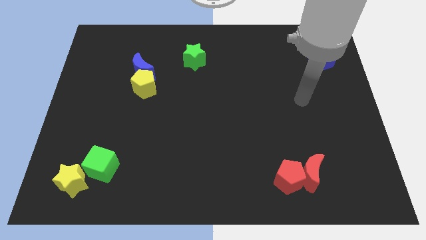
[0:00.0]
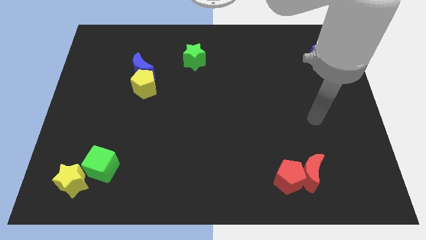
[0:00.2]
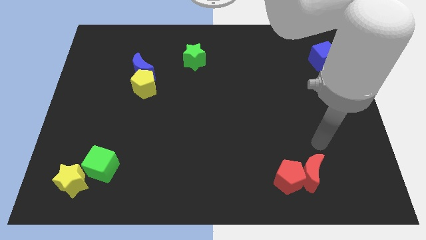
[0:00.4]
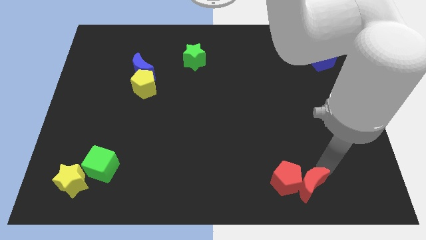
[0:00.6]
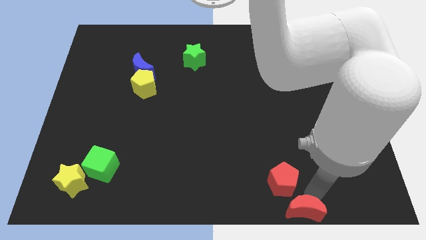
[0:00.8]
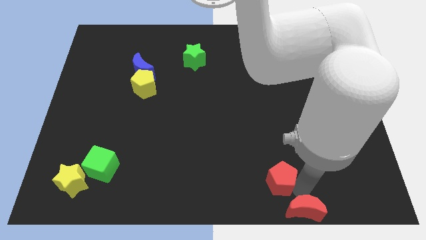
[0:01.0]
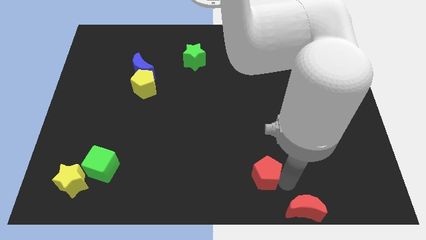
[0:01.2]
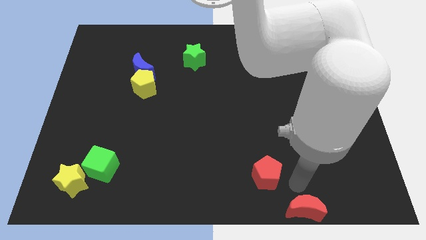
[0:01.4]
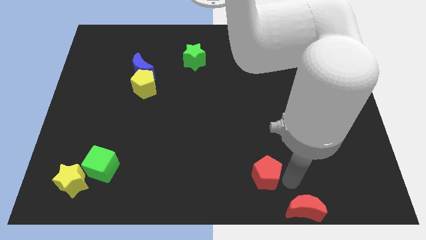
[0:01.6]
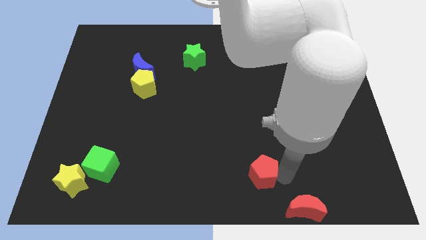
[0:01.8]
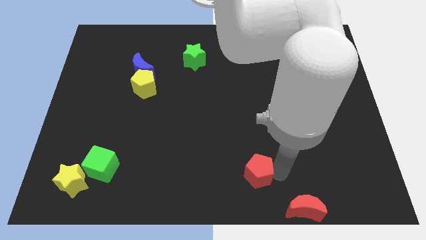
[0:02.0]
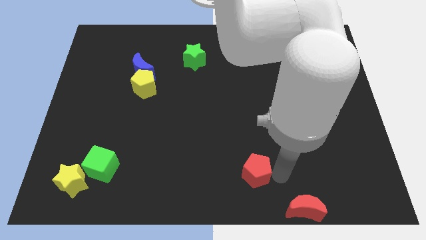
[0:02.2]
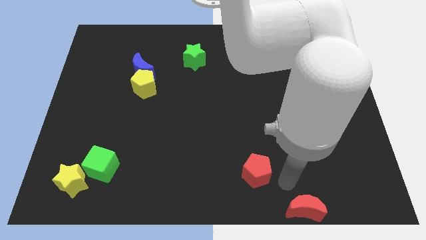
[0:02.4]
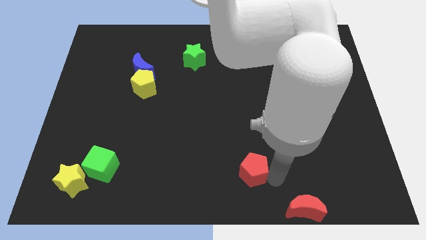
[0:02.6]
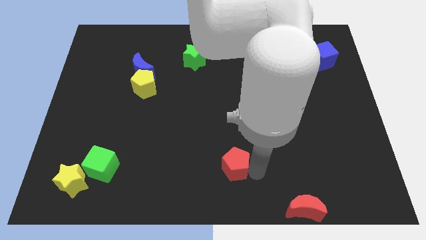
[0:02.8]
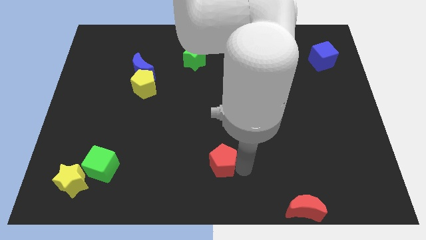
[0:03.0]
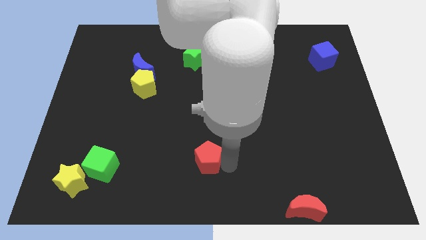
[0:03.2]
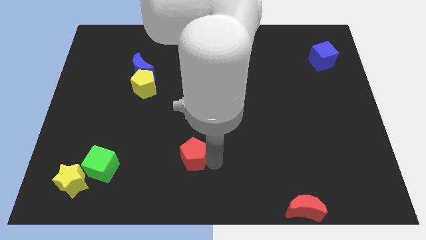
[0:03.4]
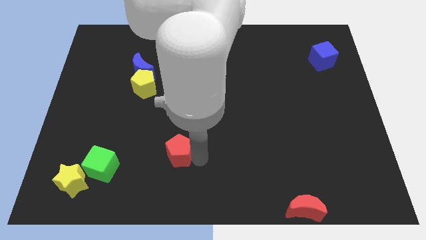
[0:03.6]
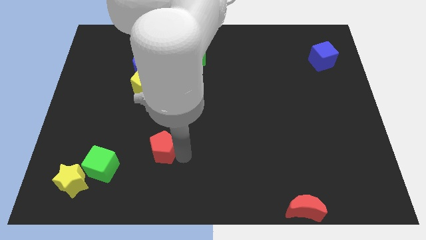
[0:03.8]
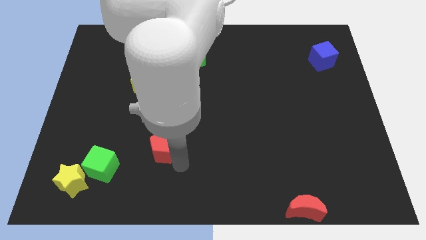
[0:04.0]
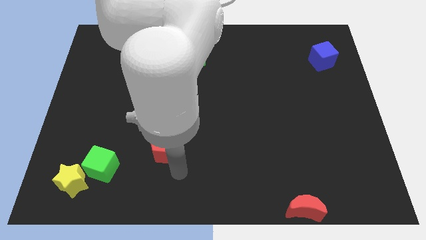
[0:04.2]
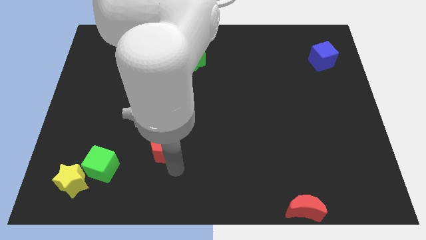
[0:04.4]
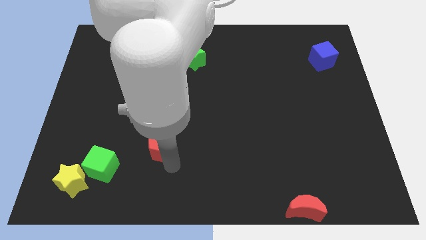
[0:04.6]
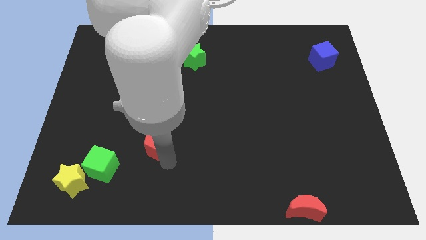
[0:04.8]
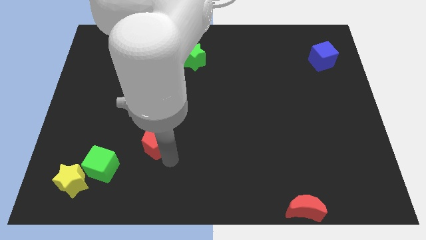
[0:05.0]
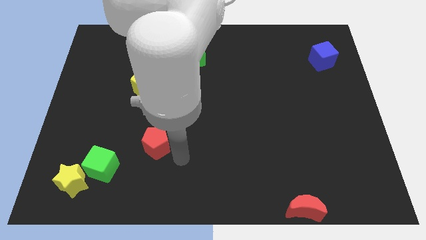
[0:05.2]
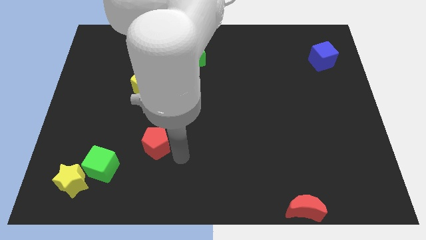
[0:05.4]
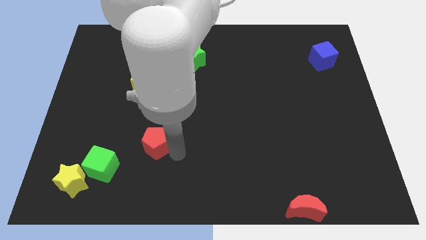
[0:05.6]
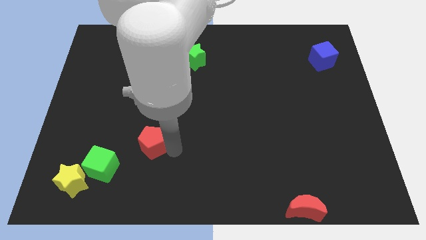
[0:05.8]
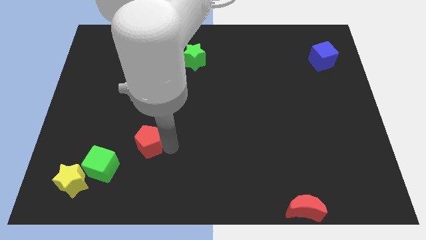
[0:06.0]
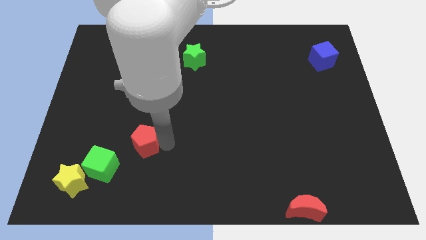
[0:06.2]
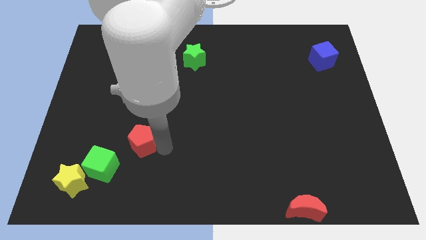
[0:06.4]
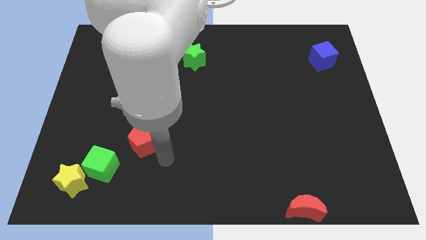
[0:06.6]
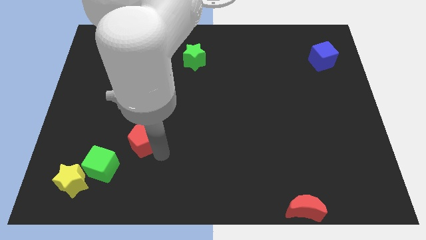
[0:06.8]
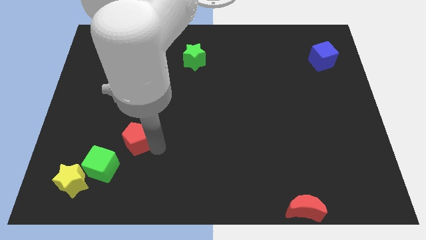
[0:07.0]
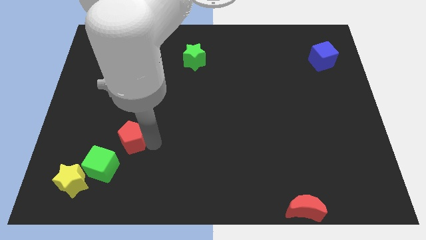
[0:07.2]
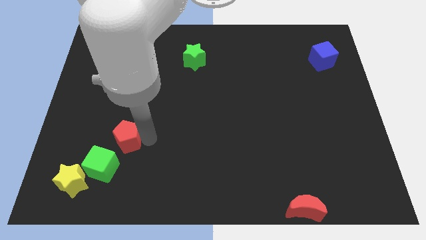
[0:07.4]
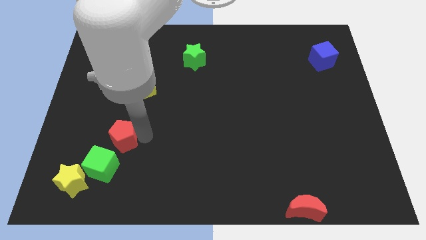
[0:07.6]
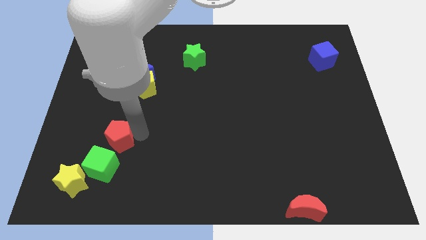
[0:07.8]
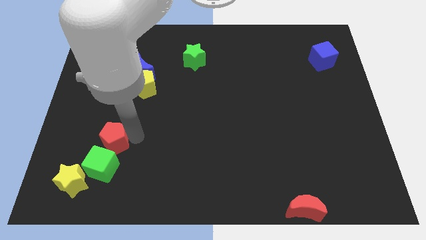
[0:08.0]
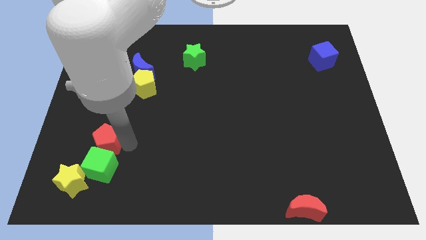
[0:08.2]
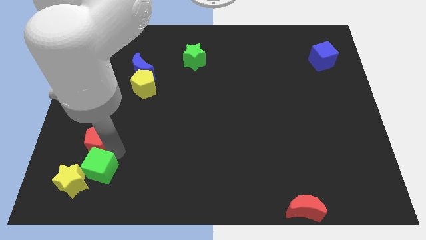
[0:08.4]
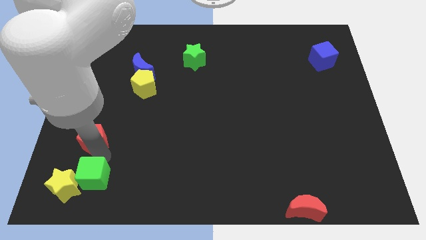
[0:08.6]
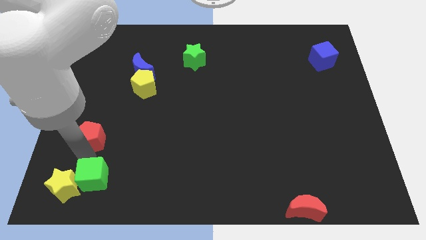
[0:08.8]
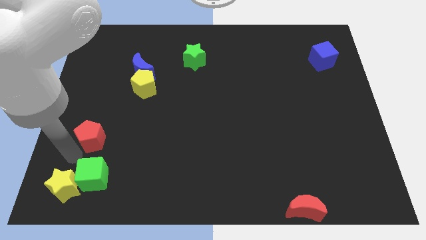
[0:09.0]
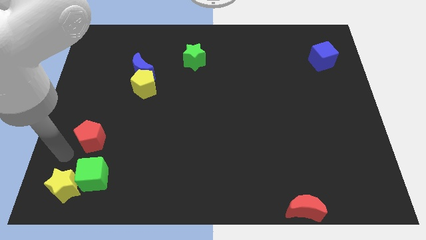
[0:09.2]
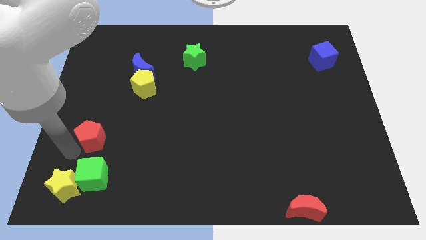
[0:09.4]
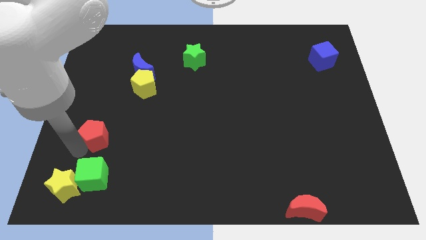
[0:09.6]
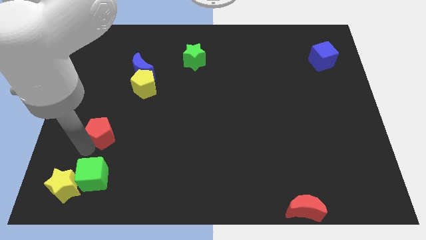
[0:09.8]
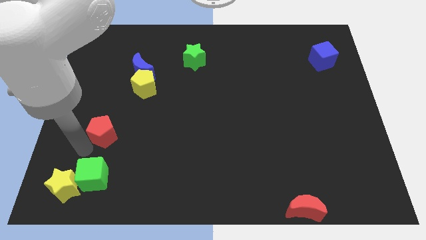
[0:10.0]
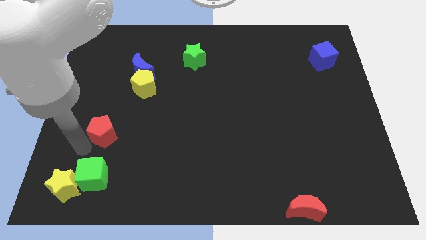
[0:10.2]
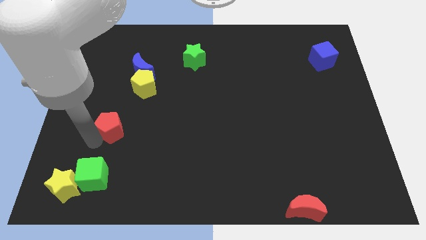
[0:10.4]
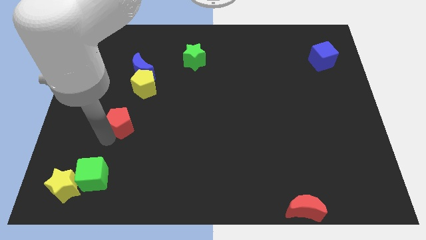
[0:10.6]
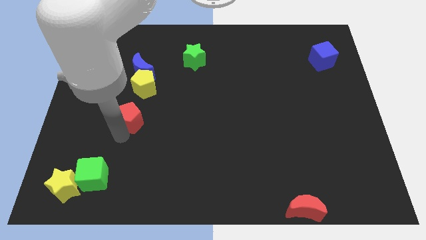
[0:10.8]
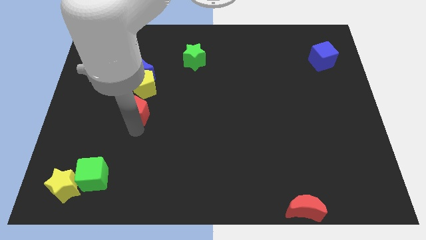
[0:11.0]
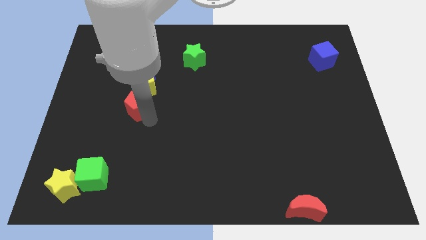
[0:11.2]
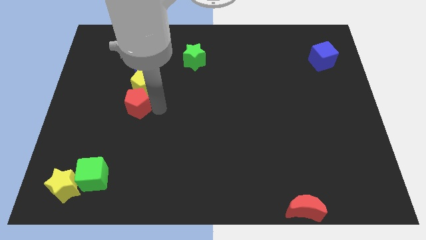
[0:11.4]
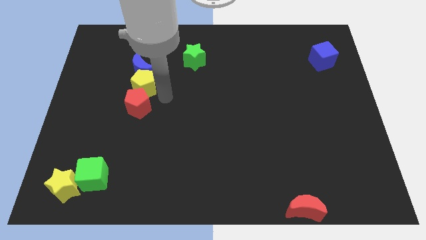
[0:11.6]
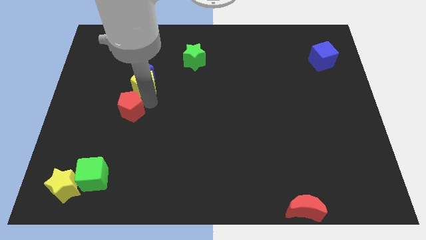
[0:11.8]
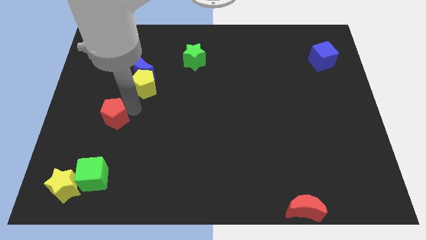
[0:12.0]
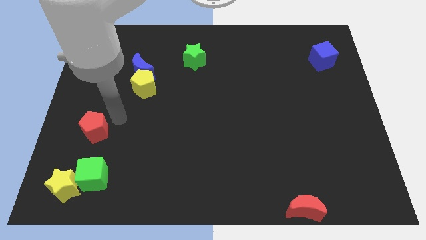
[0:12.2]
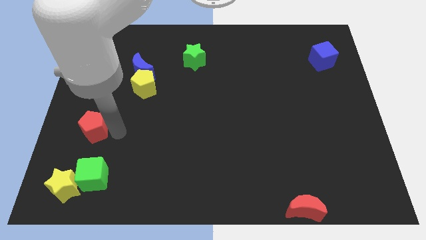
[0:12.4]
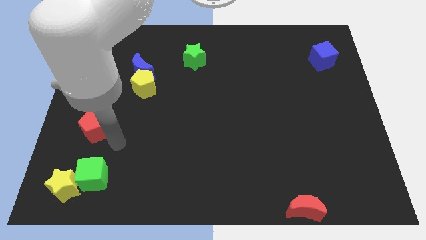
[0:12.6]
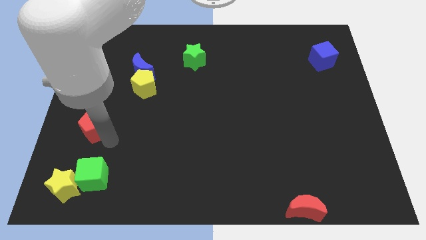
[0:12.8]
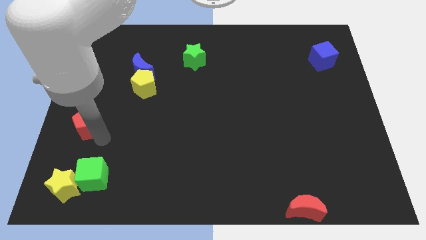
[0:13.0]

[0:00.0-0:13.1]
put the red pentagon to the left side of the board
